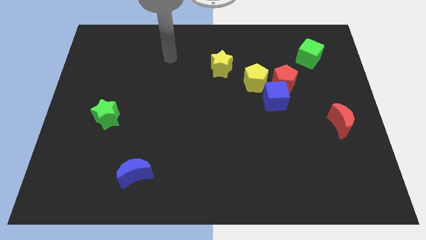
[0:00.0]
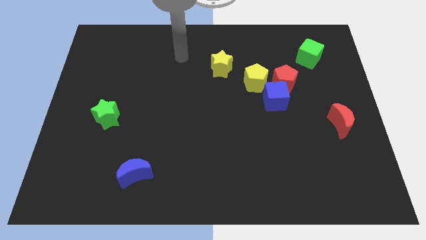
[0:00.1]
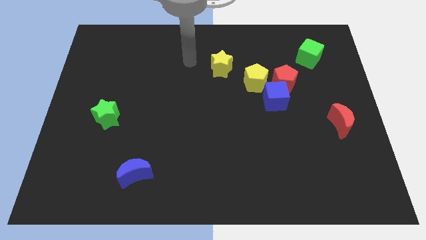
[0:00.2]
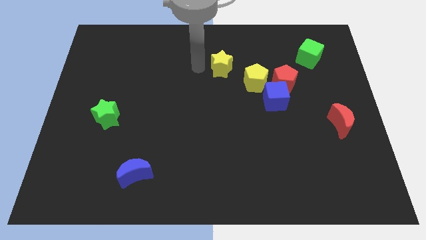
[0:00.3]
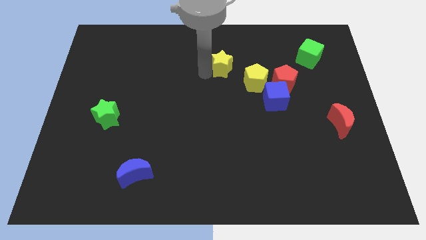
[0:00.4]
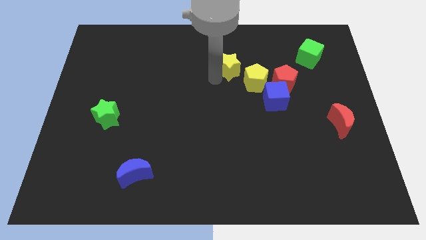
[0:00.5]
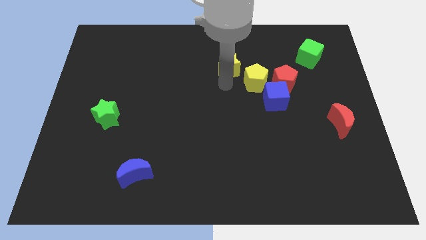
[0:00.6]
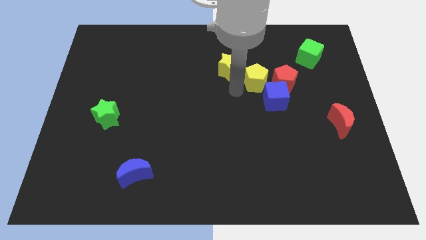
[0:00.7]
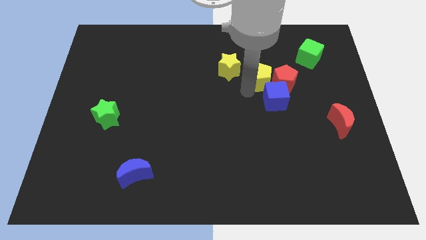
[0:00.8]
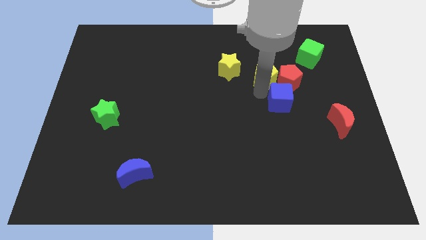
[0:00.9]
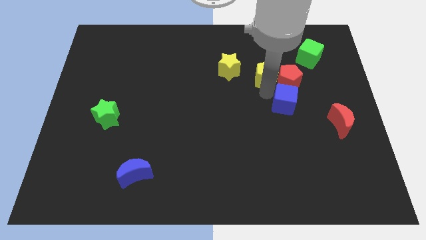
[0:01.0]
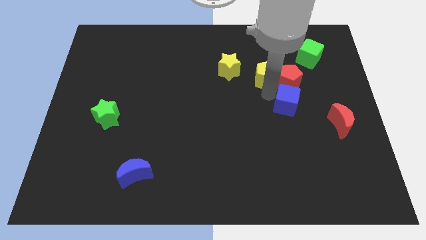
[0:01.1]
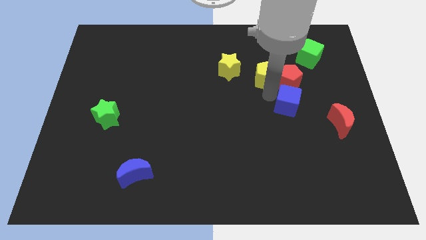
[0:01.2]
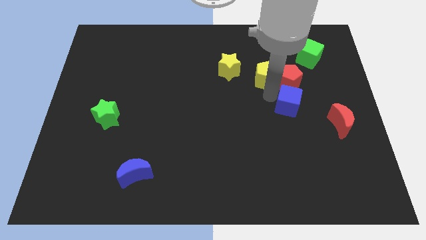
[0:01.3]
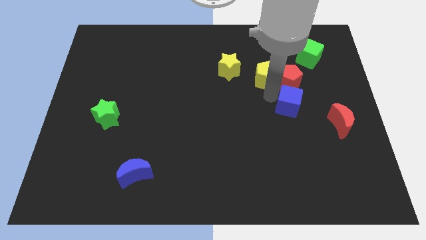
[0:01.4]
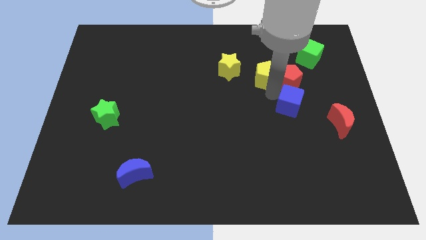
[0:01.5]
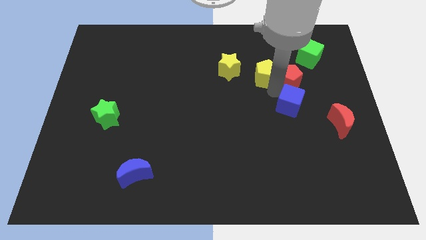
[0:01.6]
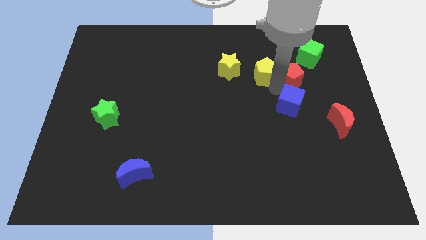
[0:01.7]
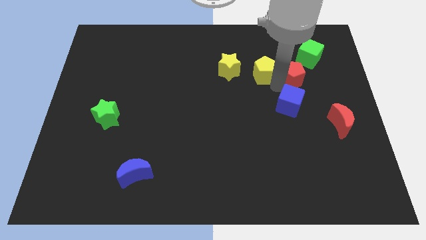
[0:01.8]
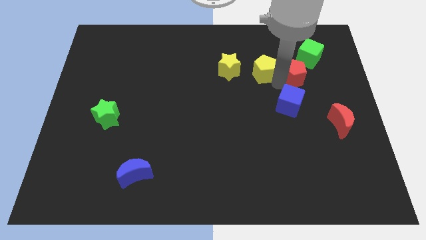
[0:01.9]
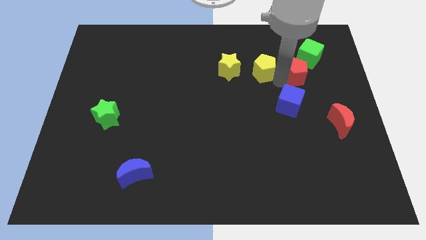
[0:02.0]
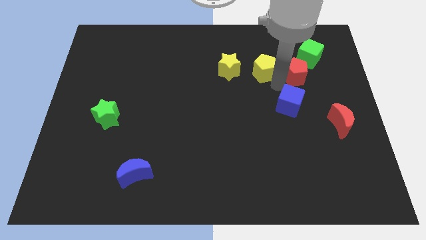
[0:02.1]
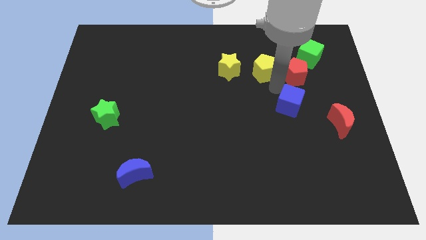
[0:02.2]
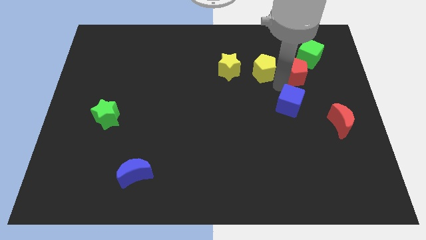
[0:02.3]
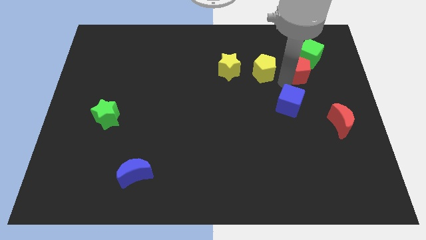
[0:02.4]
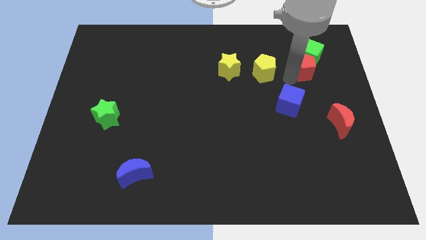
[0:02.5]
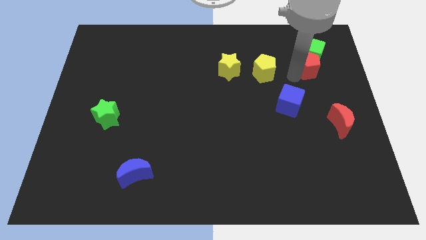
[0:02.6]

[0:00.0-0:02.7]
move the red pentagon away from the blue cube and yellow pentagon

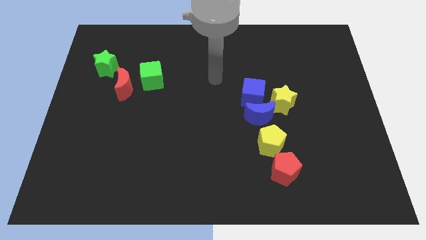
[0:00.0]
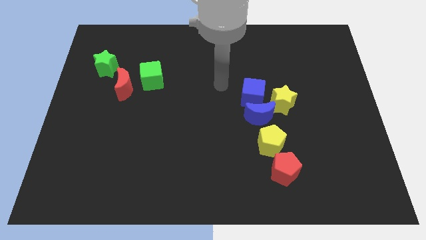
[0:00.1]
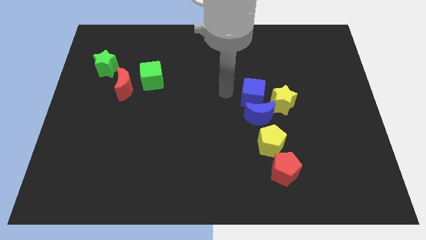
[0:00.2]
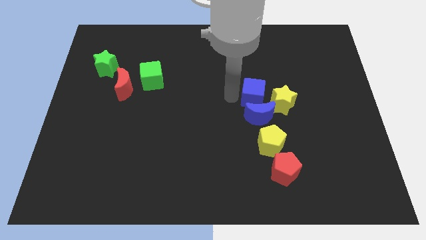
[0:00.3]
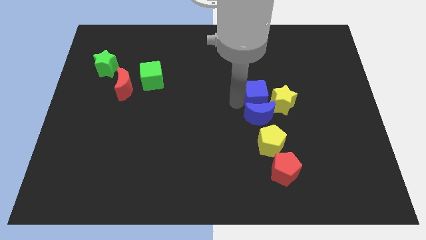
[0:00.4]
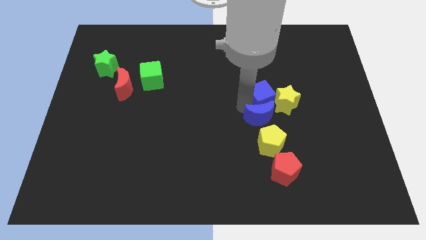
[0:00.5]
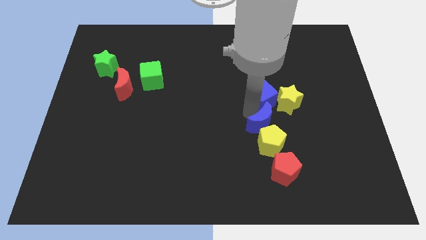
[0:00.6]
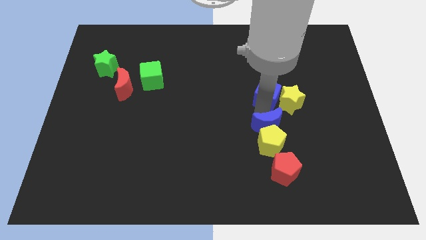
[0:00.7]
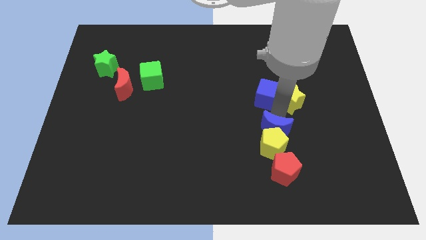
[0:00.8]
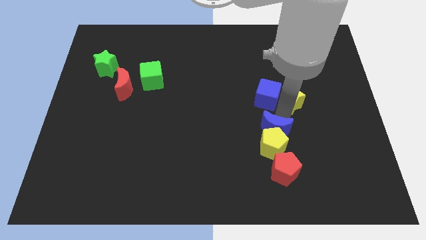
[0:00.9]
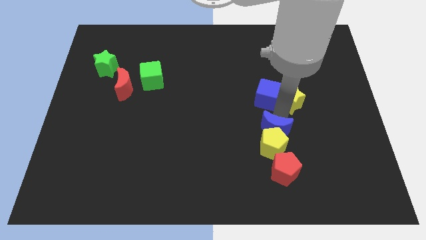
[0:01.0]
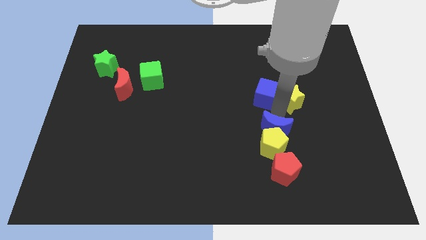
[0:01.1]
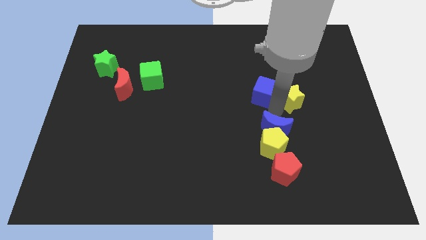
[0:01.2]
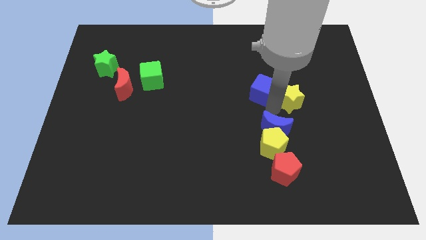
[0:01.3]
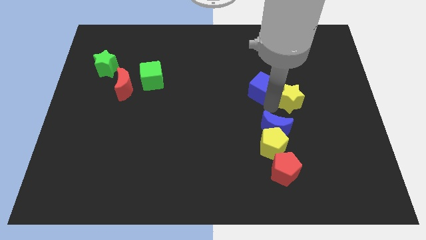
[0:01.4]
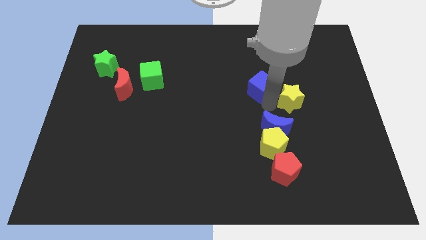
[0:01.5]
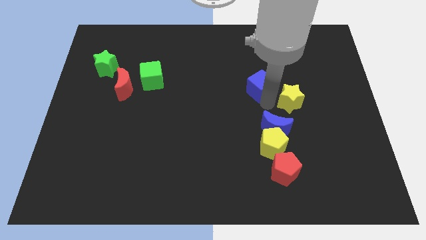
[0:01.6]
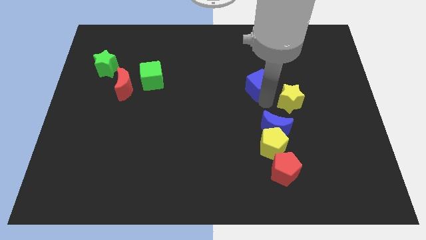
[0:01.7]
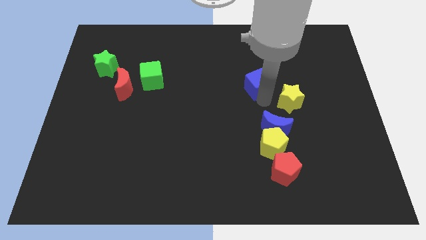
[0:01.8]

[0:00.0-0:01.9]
pull the blue cube apart from the blue moon and yellow star

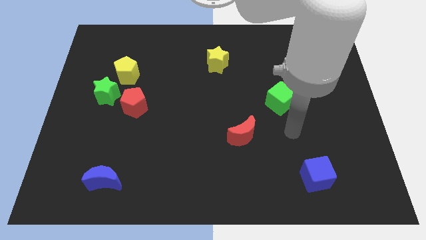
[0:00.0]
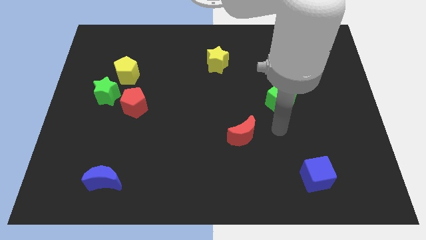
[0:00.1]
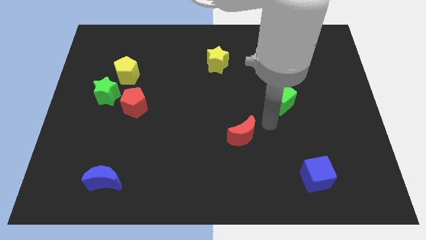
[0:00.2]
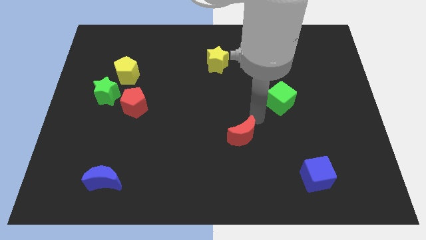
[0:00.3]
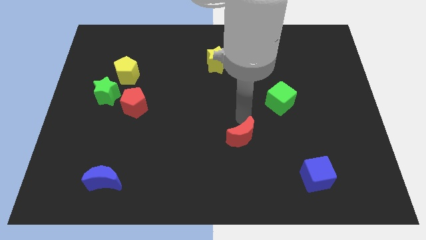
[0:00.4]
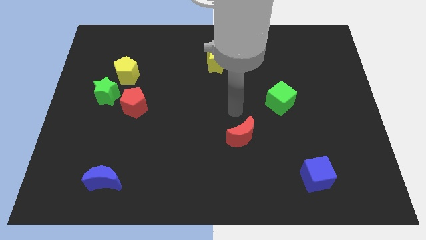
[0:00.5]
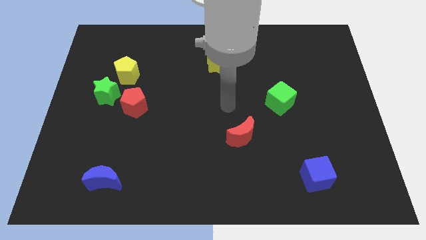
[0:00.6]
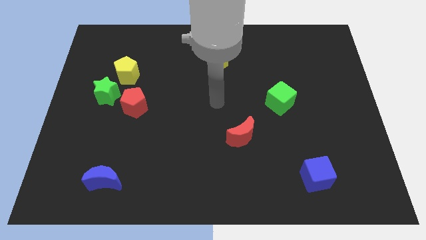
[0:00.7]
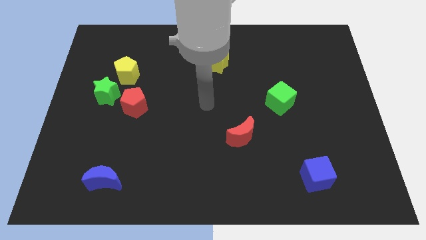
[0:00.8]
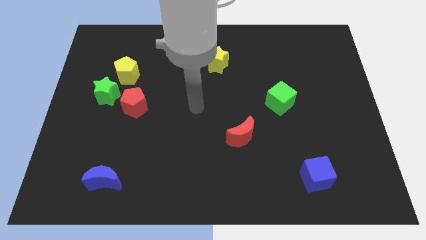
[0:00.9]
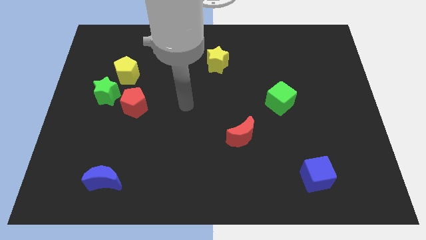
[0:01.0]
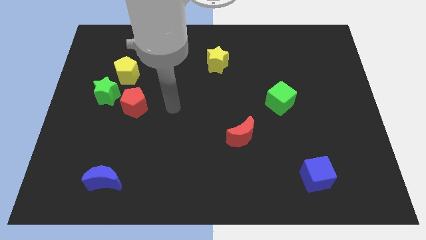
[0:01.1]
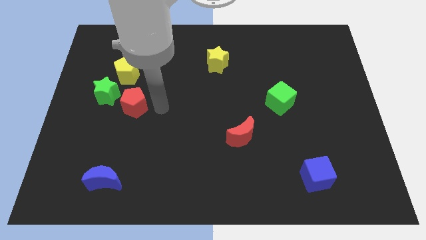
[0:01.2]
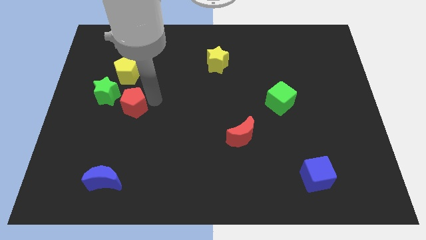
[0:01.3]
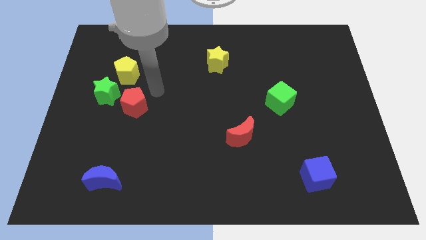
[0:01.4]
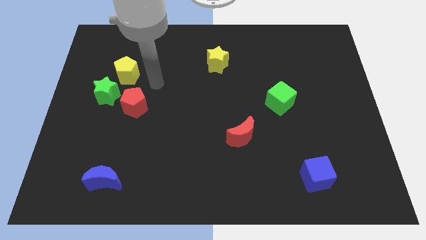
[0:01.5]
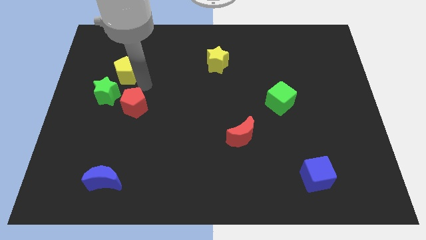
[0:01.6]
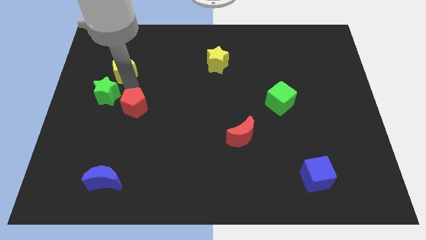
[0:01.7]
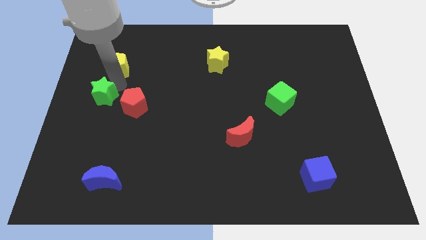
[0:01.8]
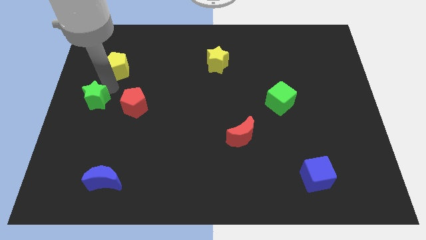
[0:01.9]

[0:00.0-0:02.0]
separate the yellow pentagon from the green star

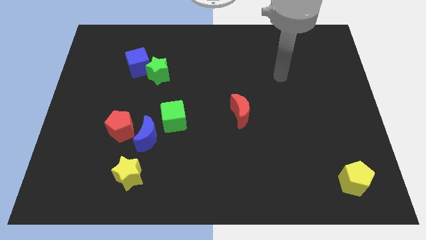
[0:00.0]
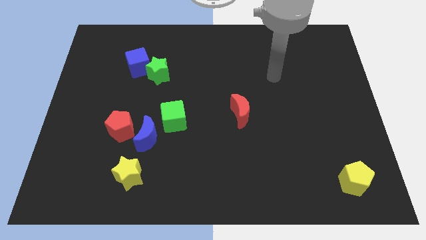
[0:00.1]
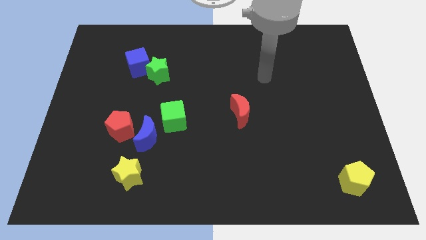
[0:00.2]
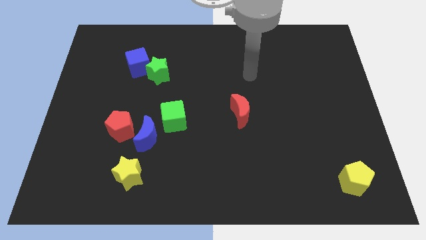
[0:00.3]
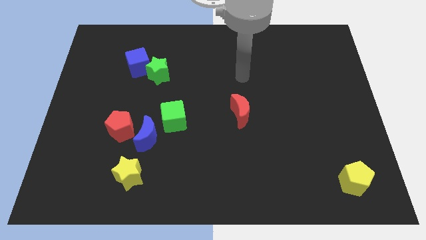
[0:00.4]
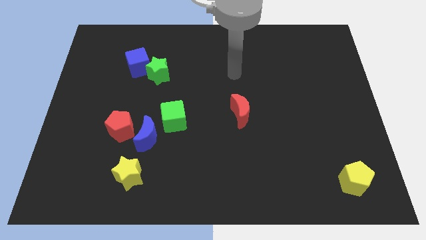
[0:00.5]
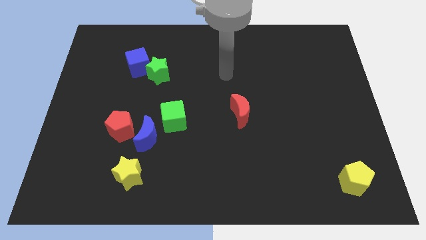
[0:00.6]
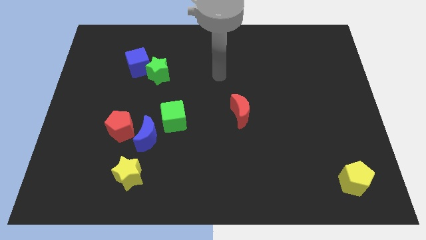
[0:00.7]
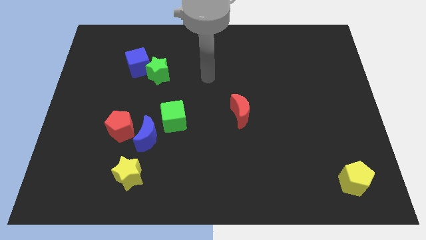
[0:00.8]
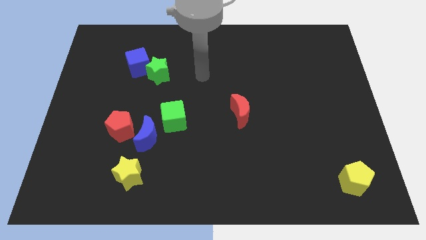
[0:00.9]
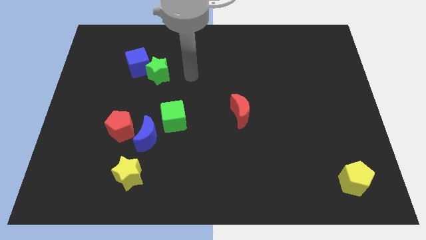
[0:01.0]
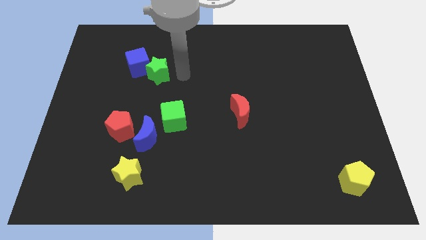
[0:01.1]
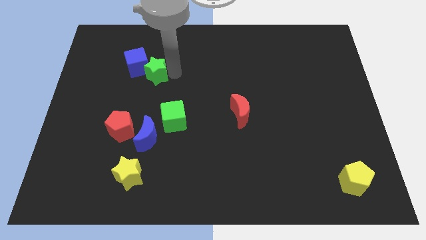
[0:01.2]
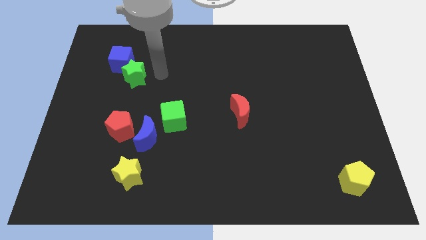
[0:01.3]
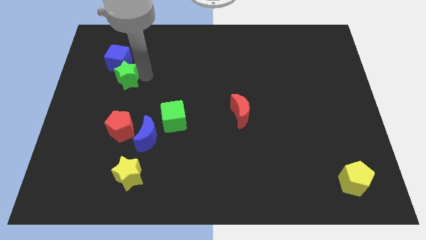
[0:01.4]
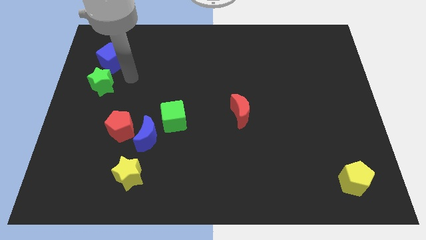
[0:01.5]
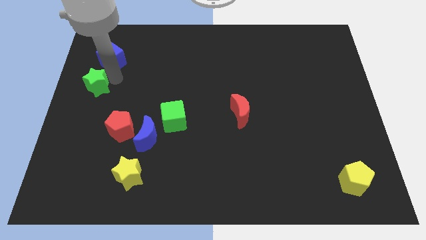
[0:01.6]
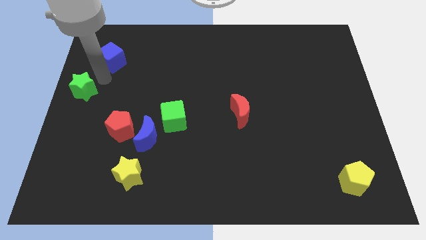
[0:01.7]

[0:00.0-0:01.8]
pull the blue cube apart from the green star

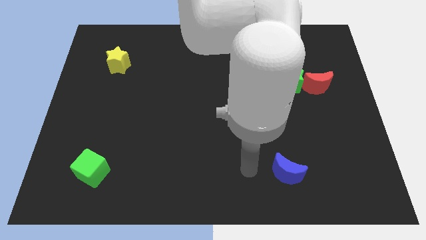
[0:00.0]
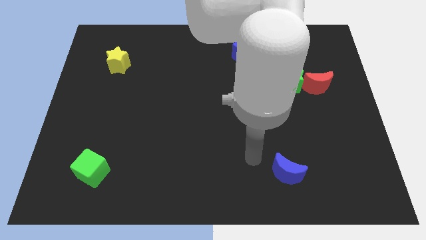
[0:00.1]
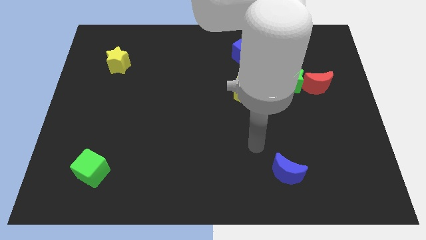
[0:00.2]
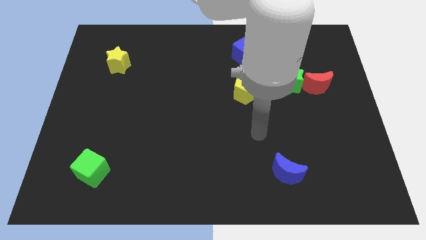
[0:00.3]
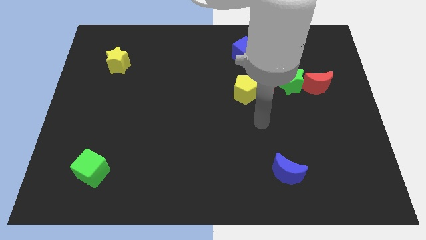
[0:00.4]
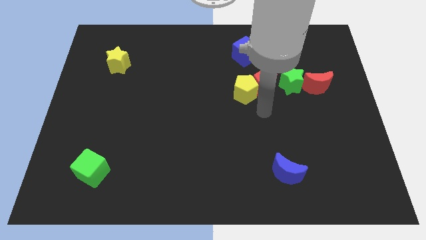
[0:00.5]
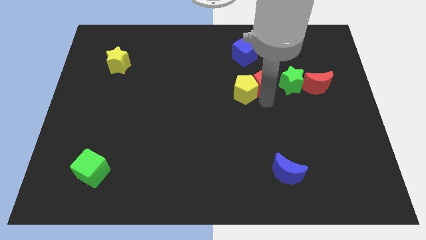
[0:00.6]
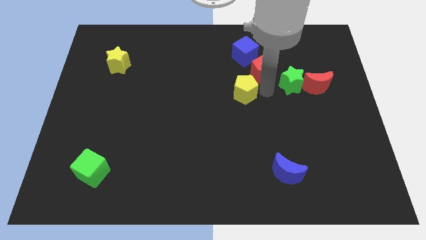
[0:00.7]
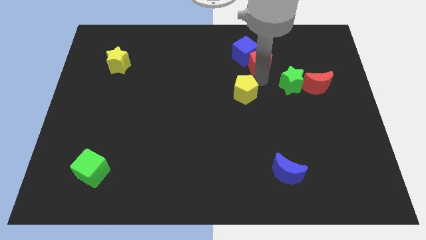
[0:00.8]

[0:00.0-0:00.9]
move the yellow pentagon away from the red pentagon
